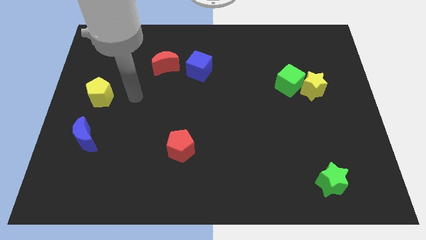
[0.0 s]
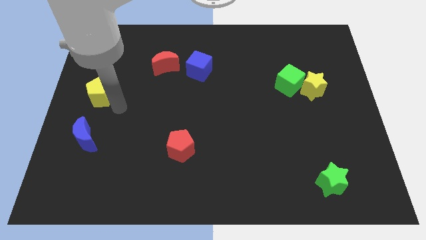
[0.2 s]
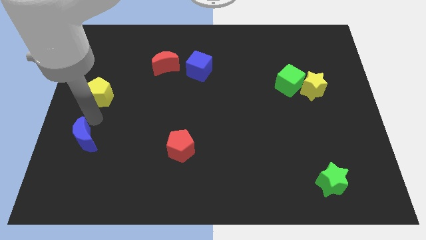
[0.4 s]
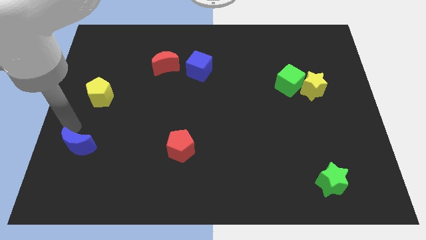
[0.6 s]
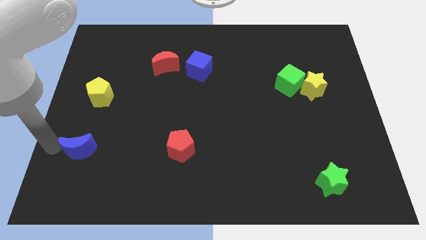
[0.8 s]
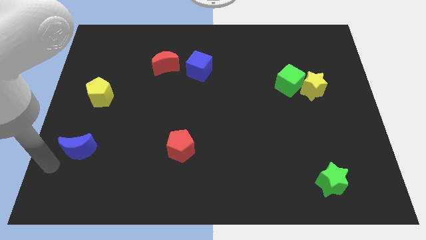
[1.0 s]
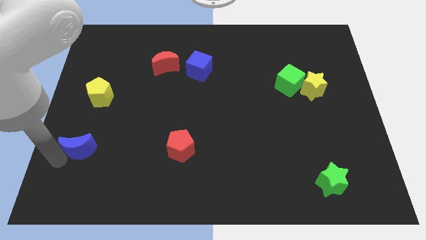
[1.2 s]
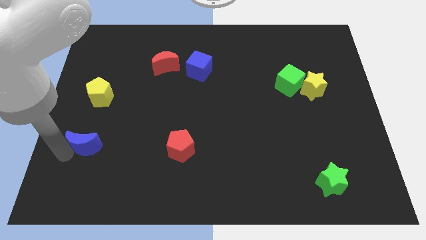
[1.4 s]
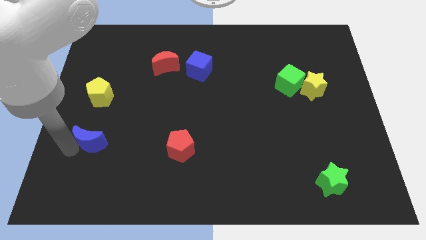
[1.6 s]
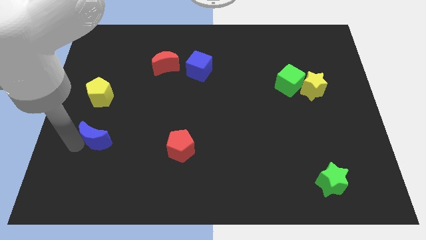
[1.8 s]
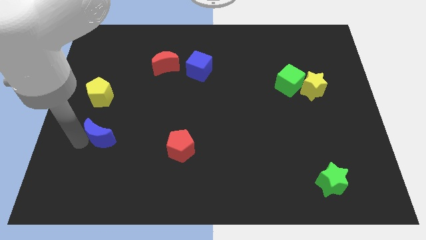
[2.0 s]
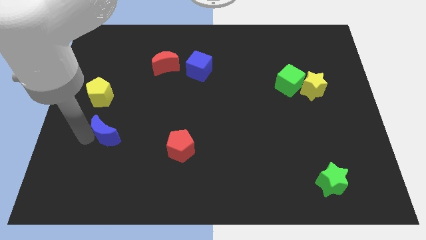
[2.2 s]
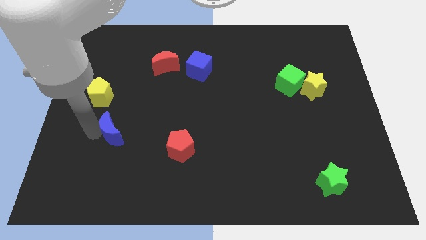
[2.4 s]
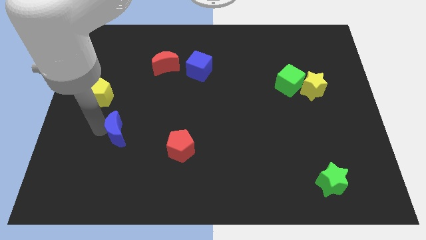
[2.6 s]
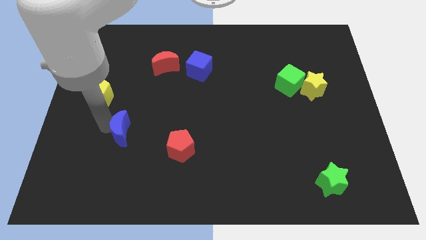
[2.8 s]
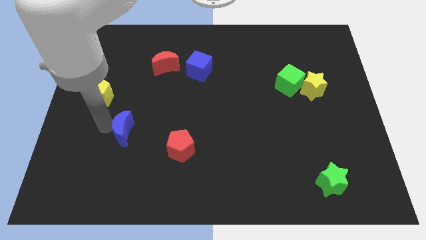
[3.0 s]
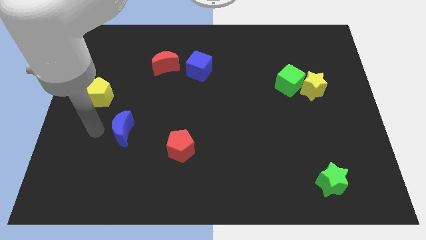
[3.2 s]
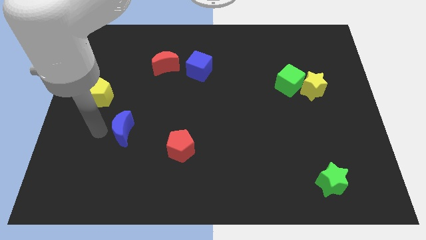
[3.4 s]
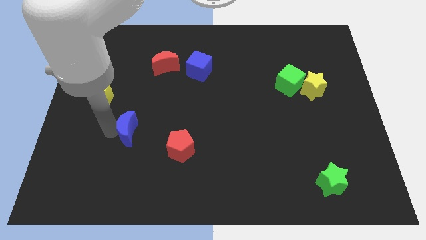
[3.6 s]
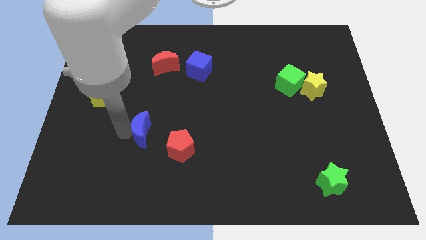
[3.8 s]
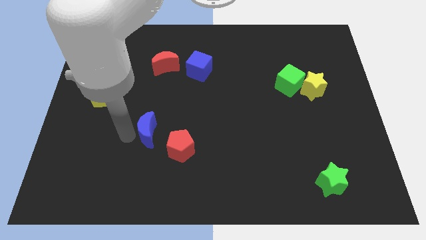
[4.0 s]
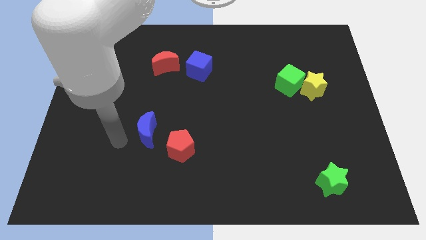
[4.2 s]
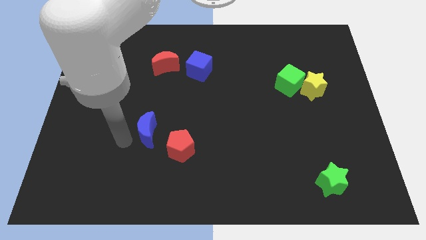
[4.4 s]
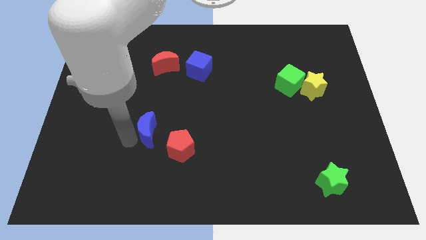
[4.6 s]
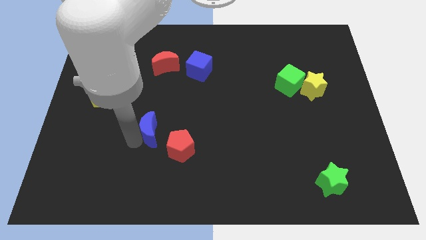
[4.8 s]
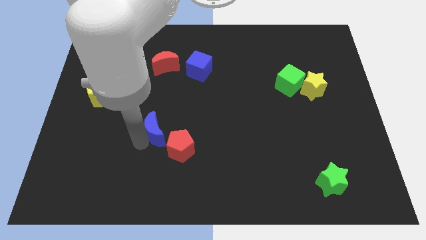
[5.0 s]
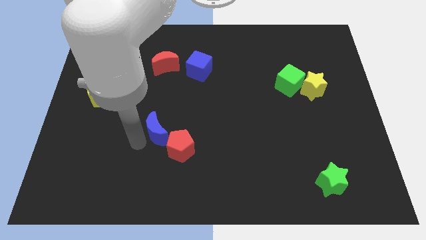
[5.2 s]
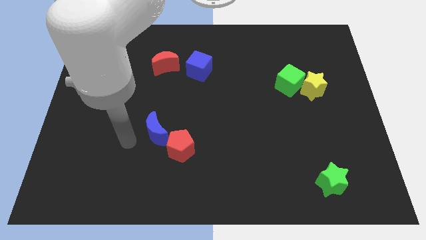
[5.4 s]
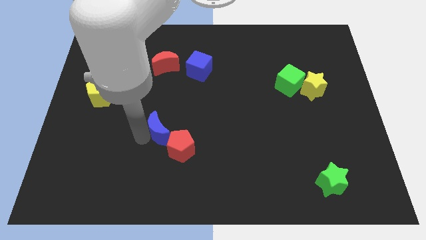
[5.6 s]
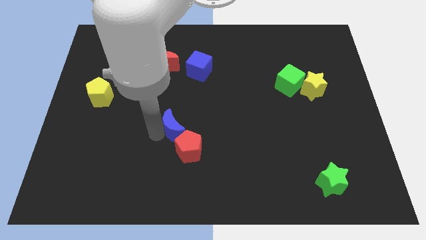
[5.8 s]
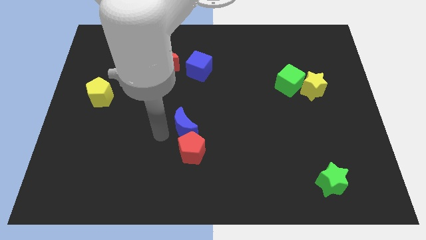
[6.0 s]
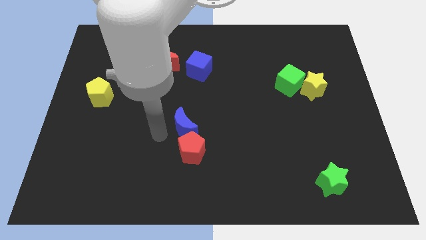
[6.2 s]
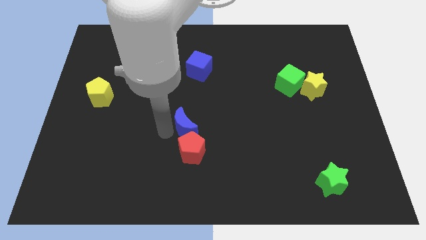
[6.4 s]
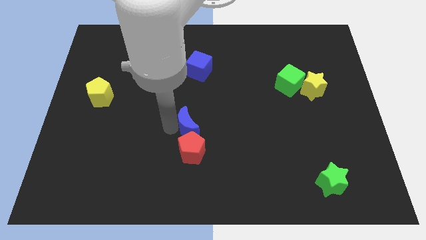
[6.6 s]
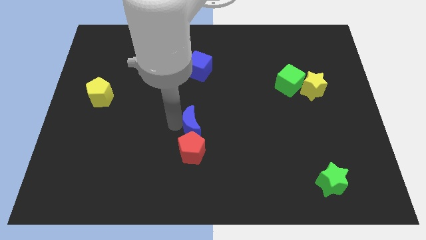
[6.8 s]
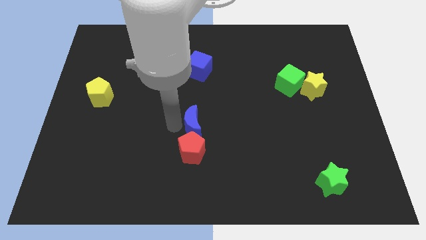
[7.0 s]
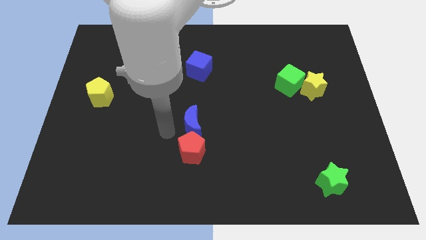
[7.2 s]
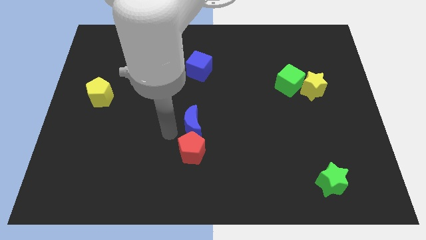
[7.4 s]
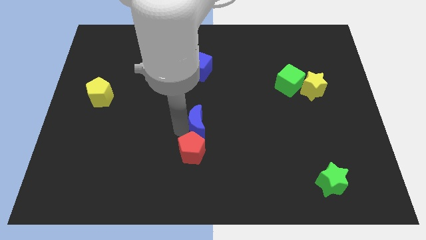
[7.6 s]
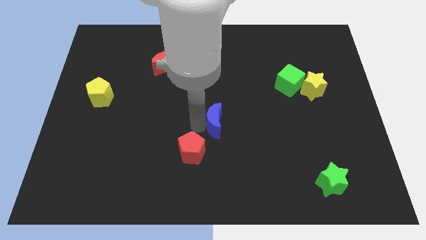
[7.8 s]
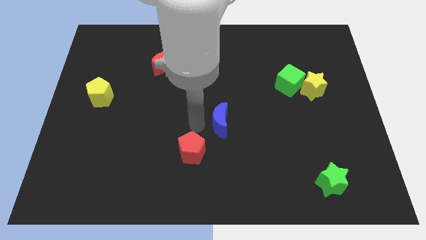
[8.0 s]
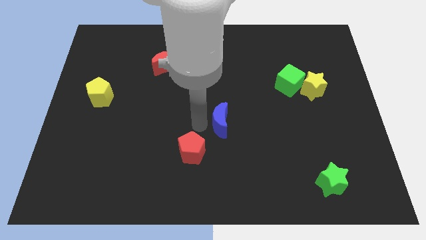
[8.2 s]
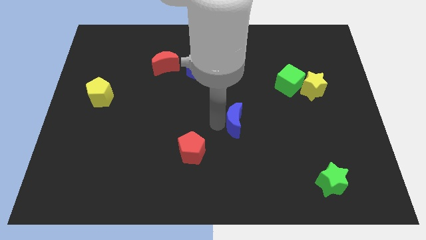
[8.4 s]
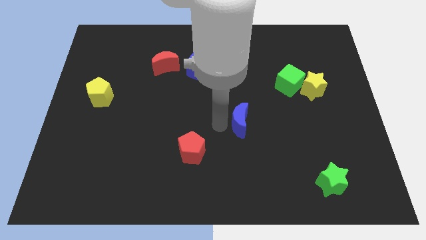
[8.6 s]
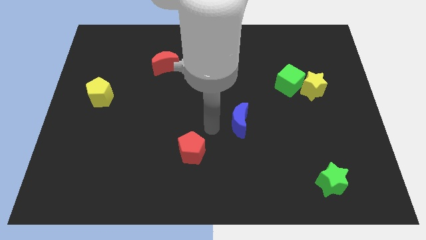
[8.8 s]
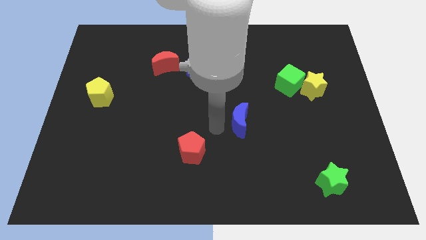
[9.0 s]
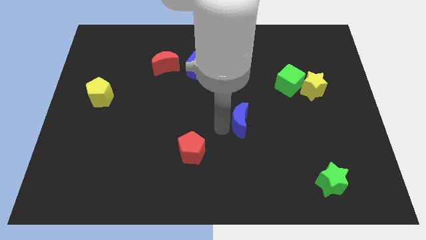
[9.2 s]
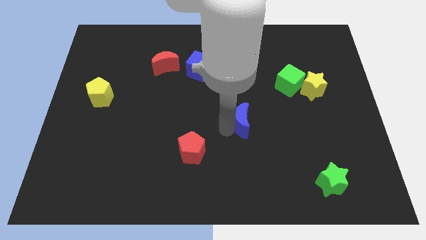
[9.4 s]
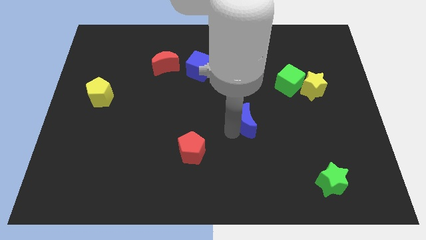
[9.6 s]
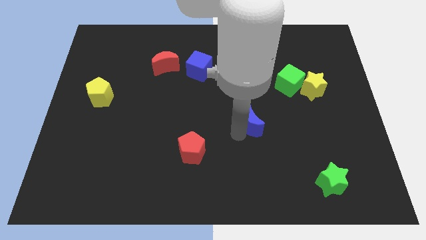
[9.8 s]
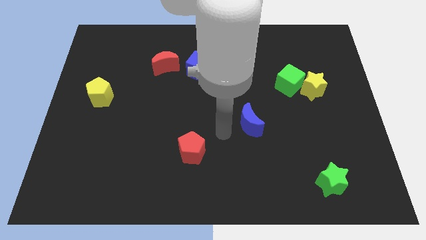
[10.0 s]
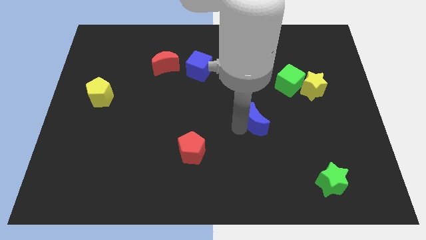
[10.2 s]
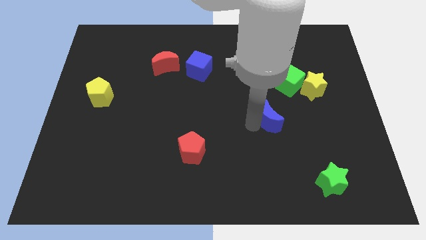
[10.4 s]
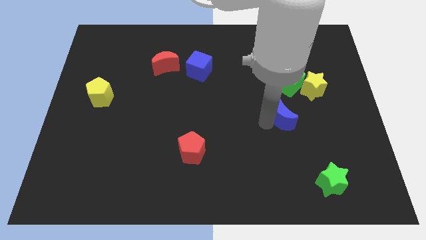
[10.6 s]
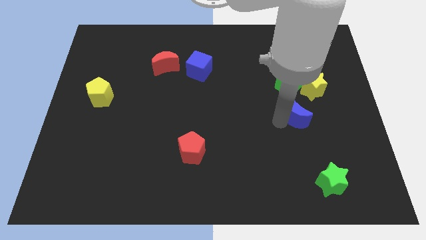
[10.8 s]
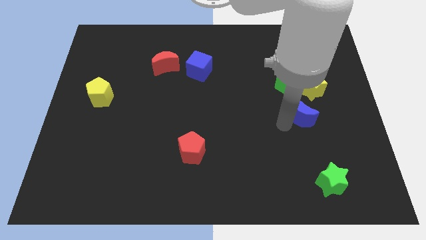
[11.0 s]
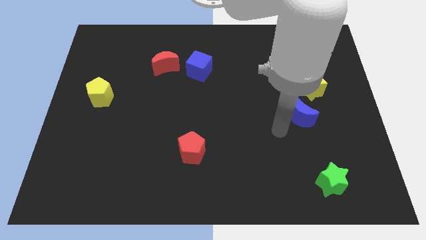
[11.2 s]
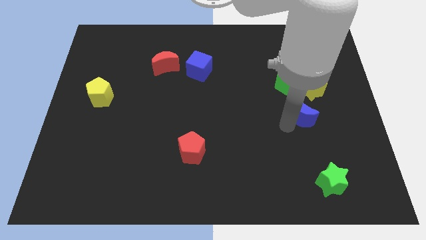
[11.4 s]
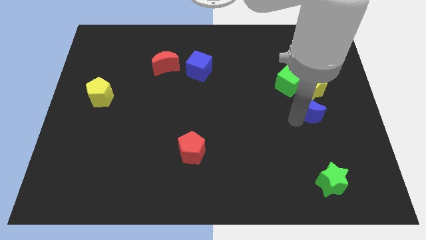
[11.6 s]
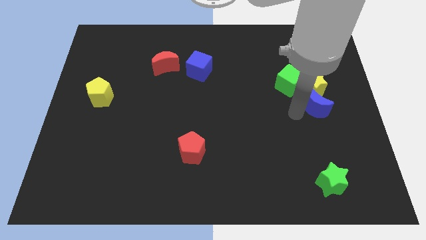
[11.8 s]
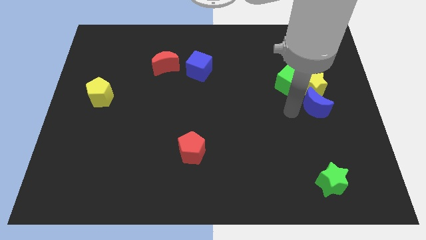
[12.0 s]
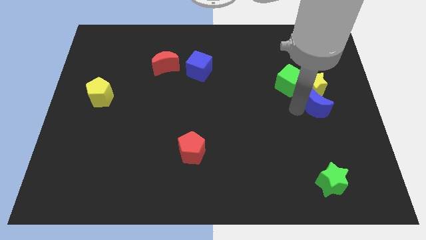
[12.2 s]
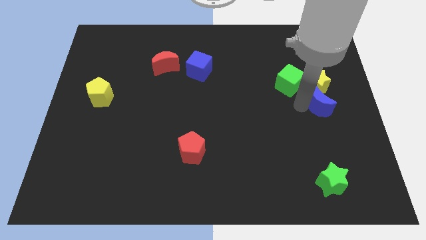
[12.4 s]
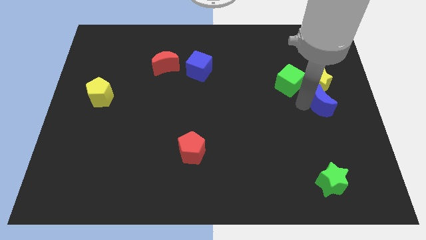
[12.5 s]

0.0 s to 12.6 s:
slide the blue moon to the right side

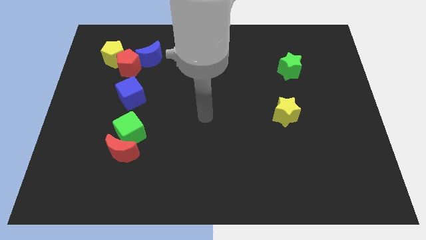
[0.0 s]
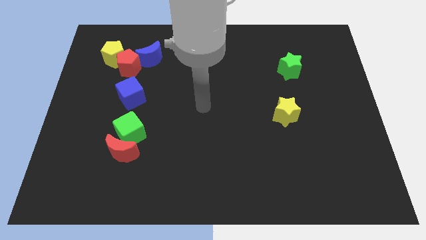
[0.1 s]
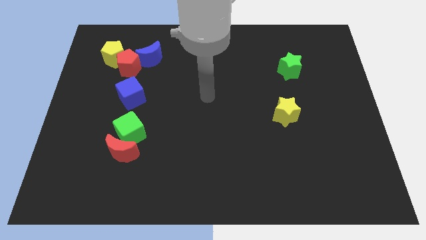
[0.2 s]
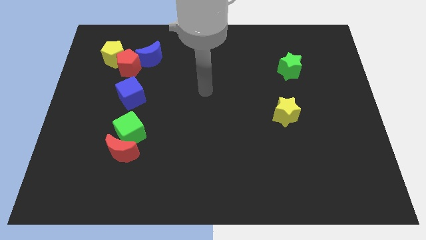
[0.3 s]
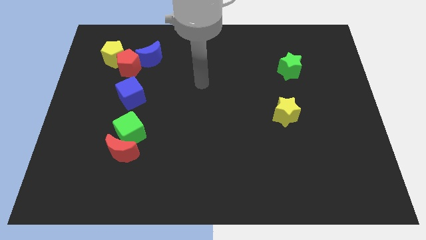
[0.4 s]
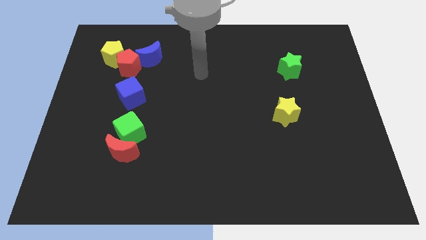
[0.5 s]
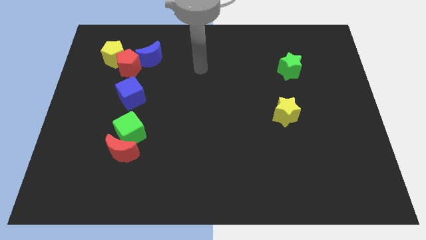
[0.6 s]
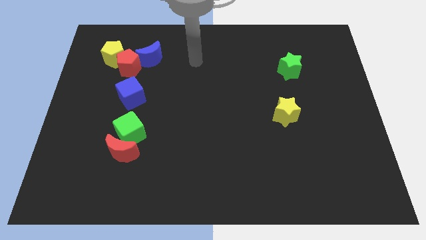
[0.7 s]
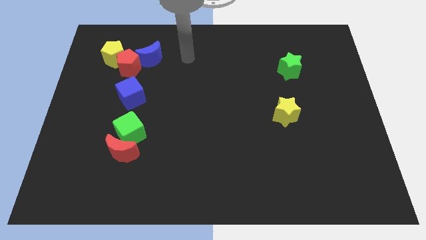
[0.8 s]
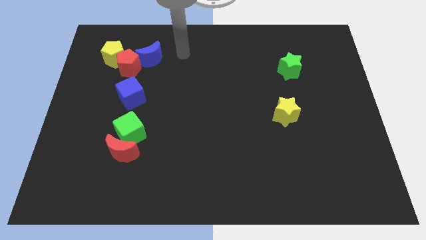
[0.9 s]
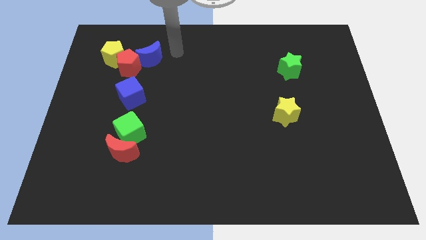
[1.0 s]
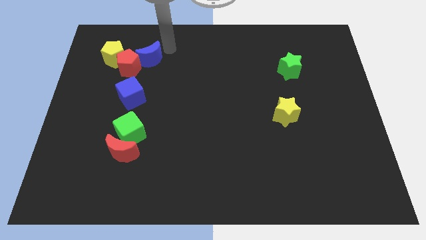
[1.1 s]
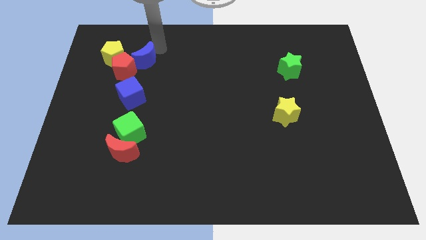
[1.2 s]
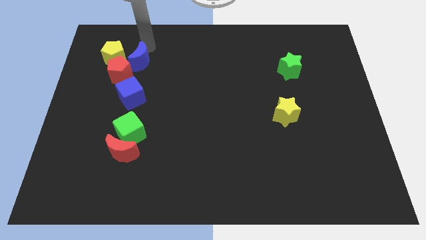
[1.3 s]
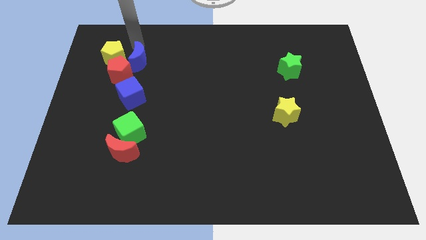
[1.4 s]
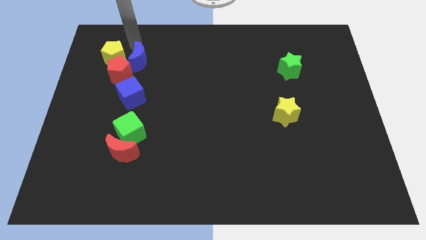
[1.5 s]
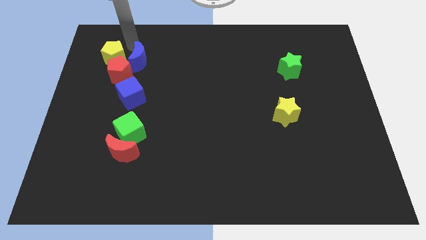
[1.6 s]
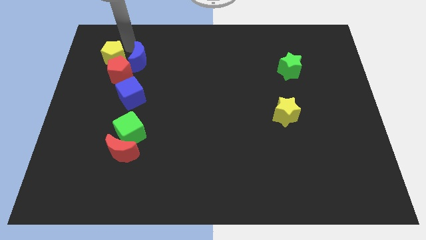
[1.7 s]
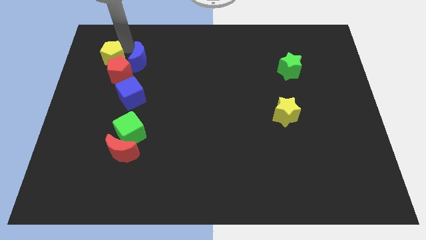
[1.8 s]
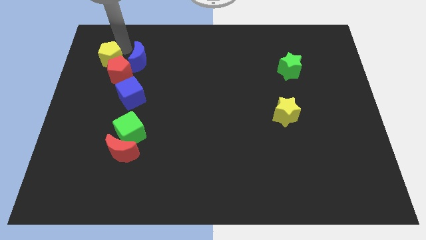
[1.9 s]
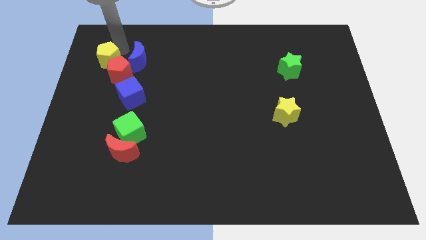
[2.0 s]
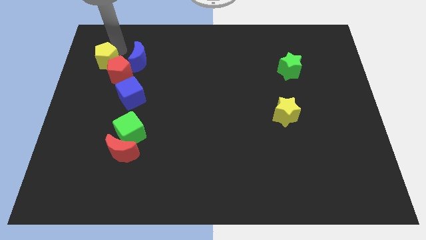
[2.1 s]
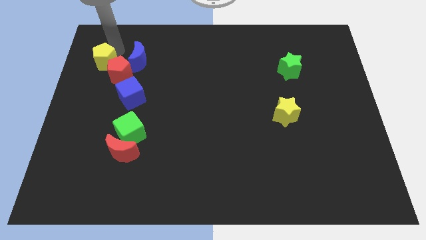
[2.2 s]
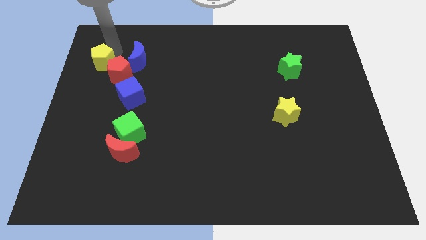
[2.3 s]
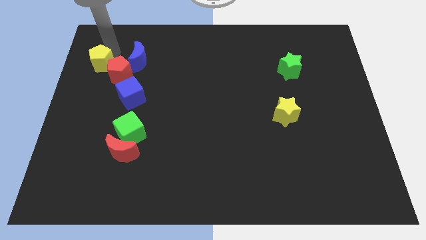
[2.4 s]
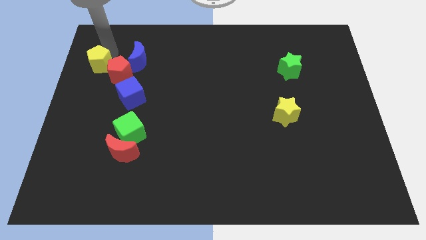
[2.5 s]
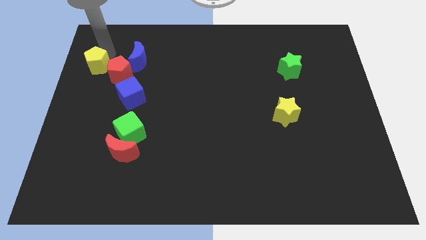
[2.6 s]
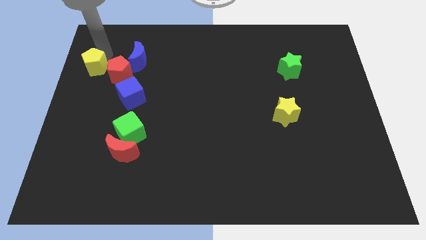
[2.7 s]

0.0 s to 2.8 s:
push the yellow pentagon to the left side
